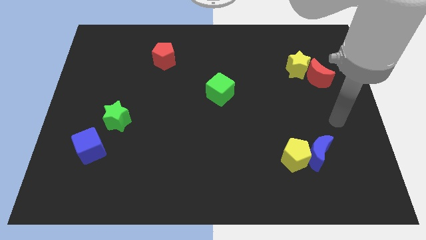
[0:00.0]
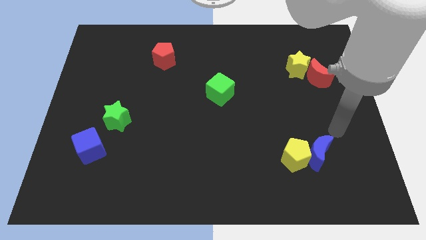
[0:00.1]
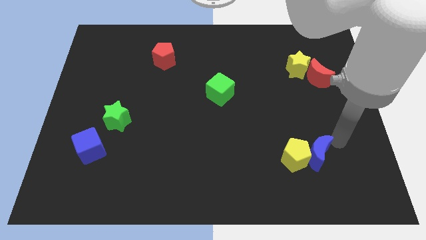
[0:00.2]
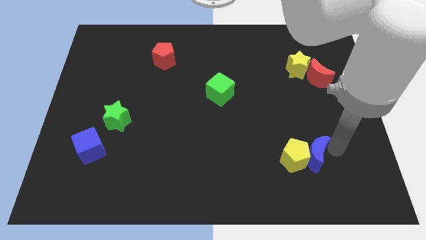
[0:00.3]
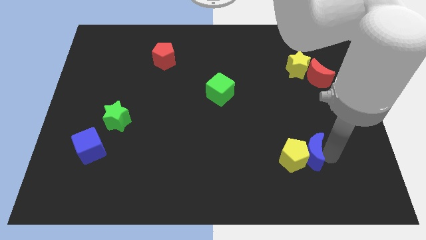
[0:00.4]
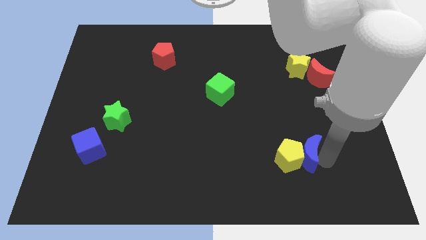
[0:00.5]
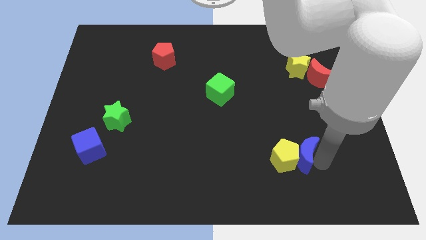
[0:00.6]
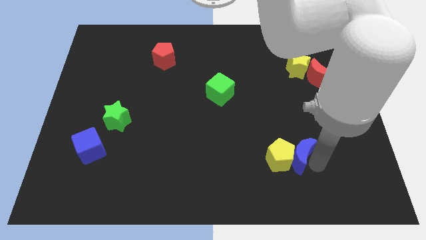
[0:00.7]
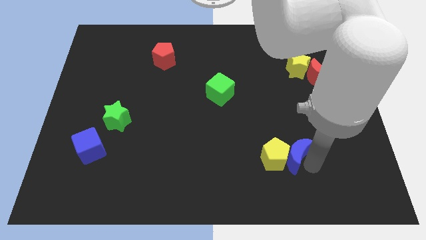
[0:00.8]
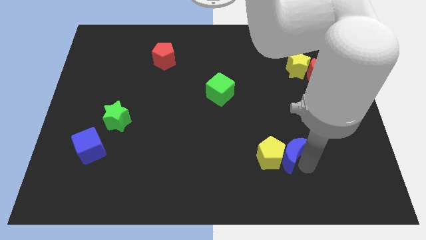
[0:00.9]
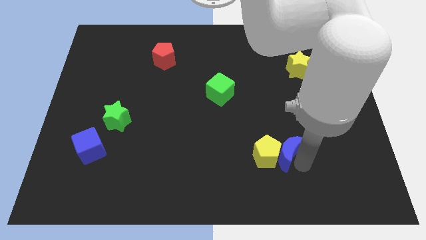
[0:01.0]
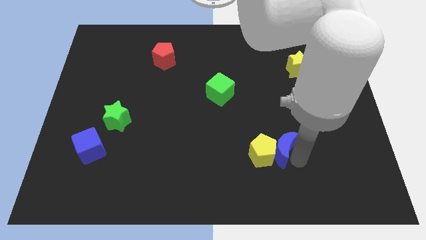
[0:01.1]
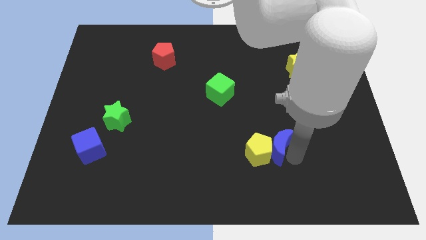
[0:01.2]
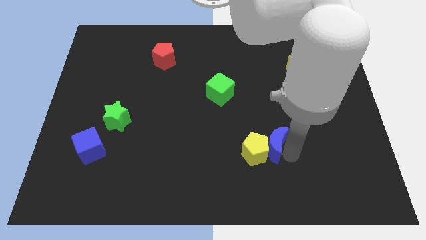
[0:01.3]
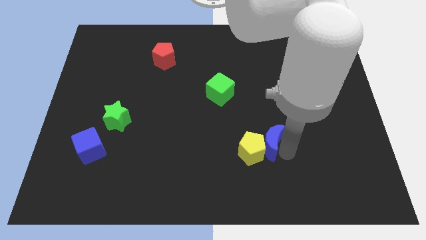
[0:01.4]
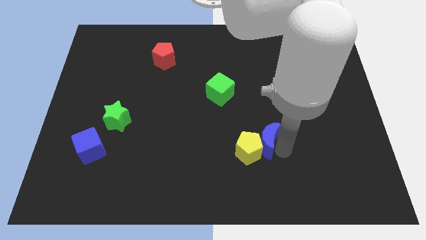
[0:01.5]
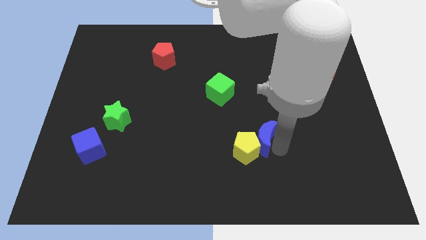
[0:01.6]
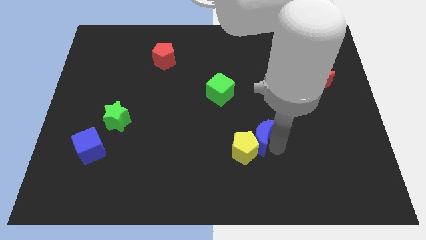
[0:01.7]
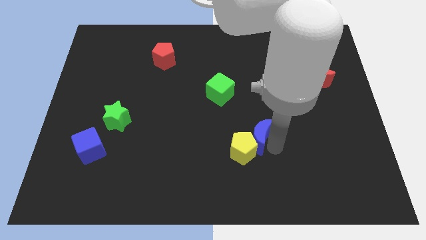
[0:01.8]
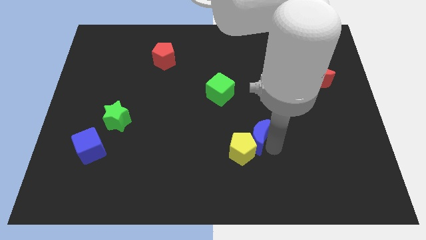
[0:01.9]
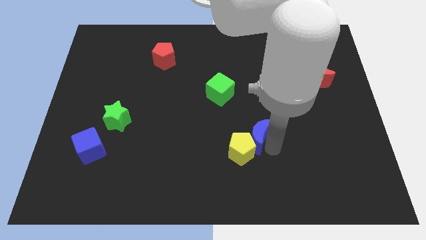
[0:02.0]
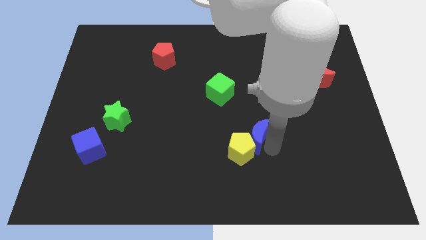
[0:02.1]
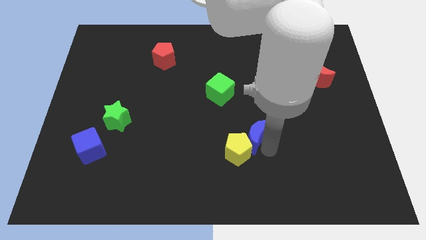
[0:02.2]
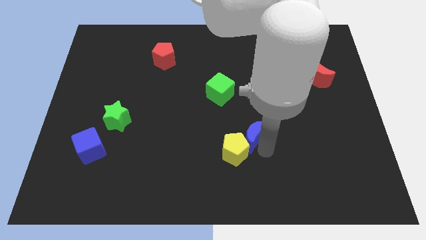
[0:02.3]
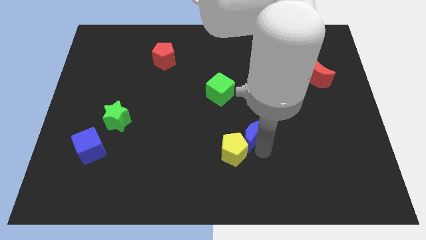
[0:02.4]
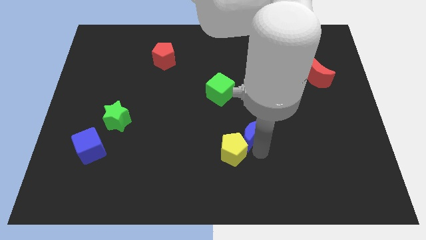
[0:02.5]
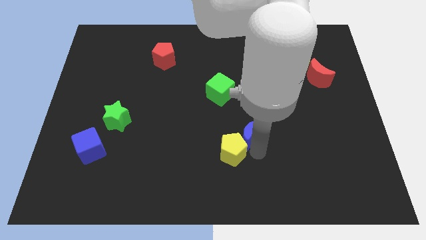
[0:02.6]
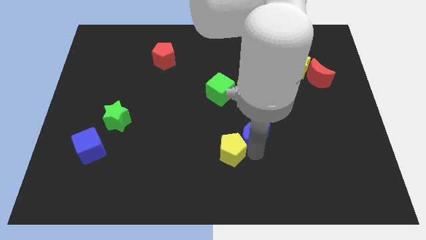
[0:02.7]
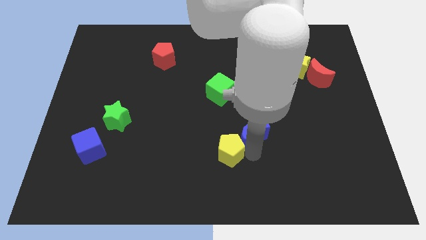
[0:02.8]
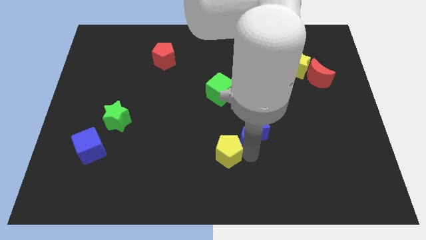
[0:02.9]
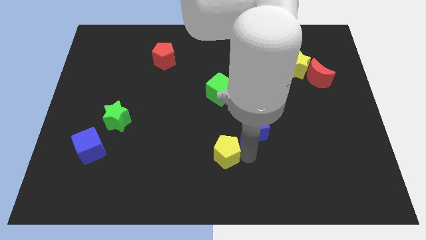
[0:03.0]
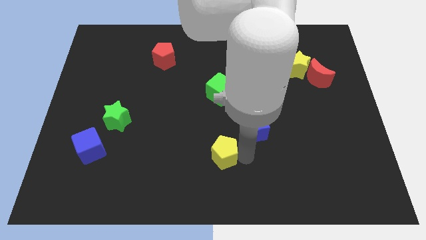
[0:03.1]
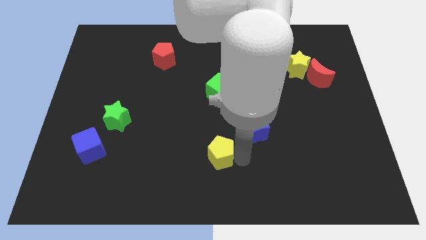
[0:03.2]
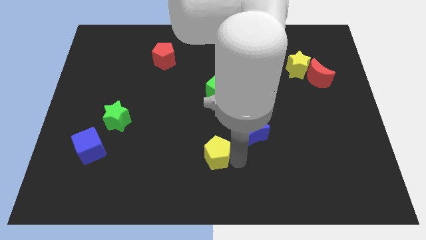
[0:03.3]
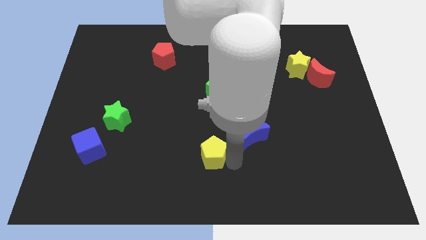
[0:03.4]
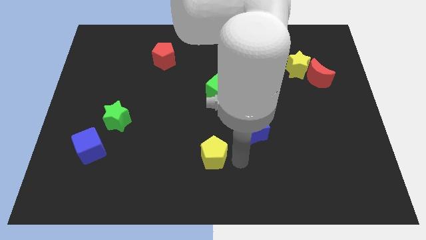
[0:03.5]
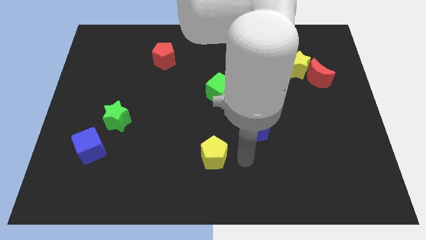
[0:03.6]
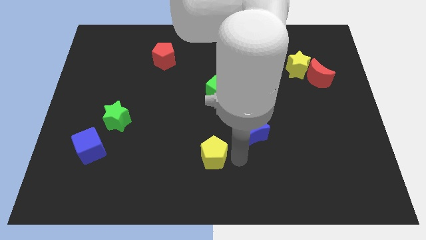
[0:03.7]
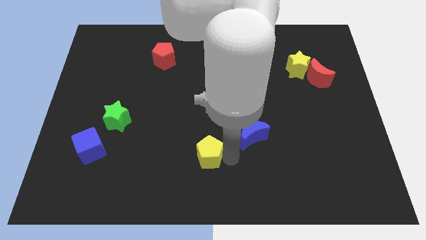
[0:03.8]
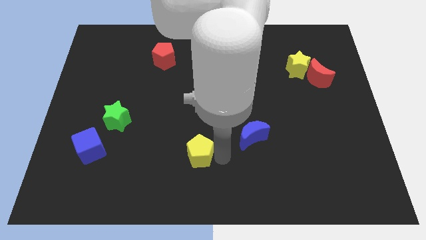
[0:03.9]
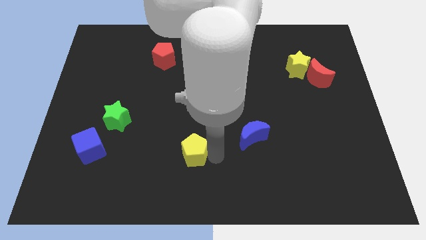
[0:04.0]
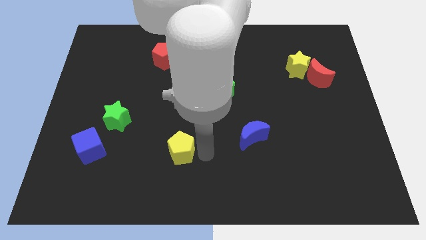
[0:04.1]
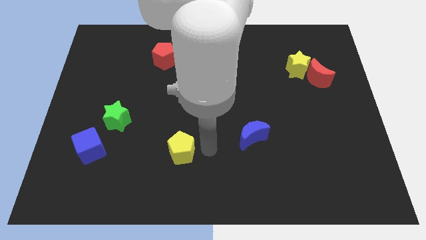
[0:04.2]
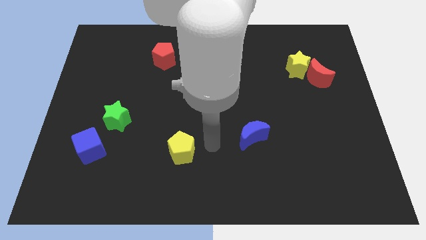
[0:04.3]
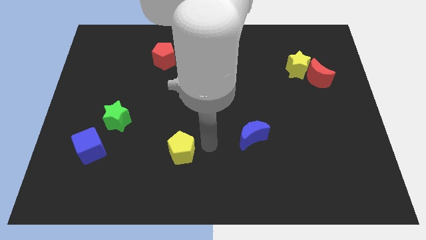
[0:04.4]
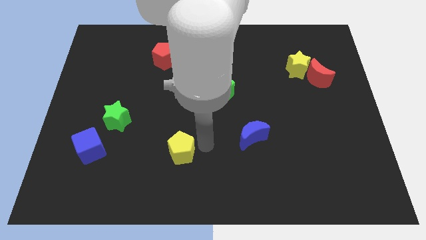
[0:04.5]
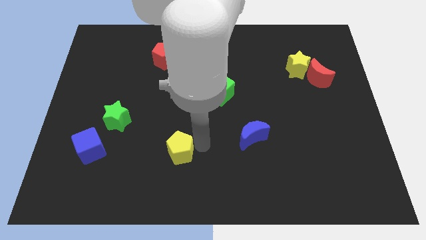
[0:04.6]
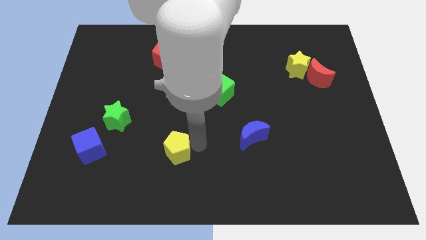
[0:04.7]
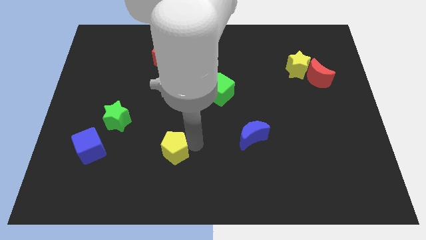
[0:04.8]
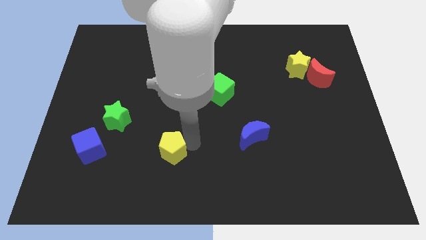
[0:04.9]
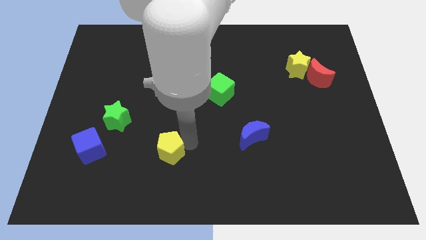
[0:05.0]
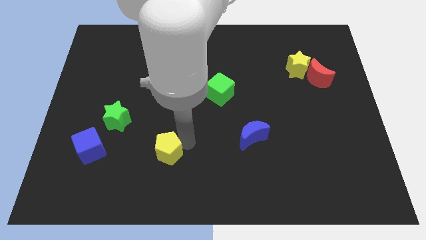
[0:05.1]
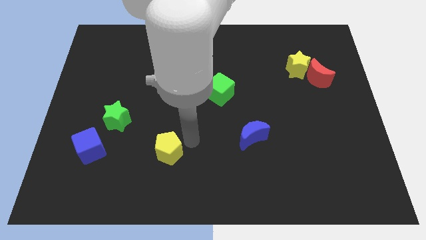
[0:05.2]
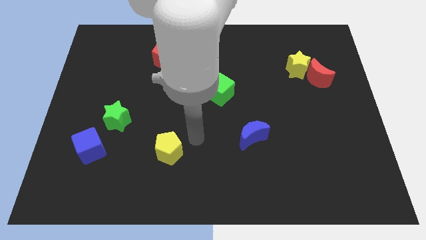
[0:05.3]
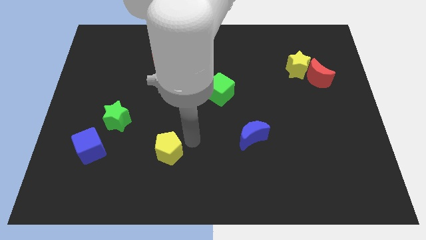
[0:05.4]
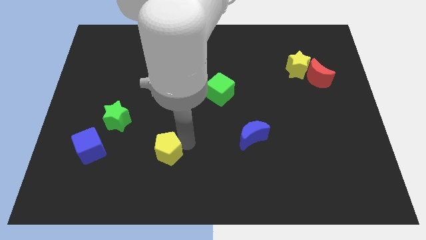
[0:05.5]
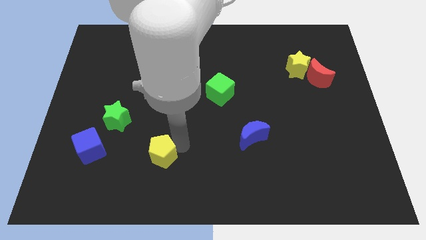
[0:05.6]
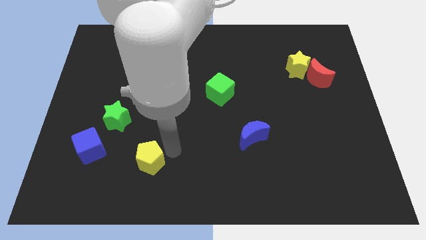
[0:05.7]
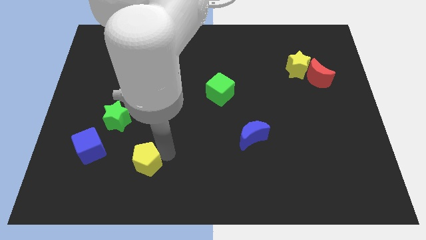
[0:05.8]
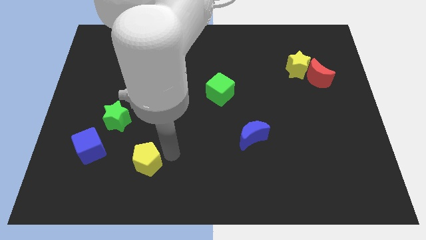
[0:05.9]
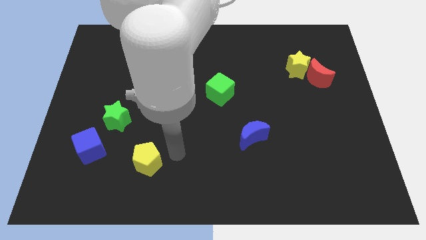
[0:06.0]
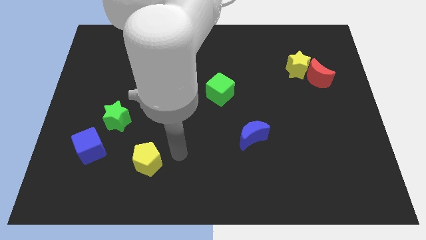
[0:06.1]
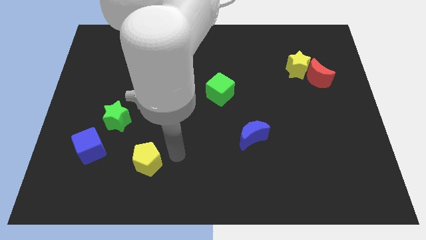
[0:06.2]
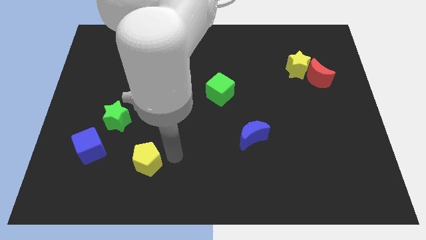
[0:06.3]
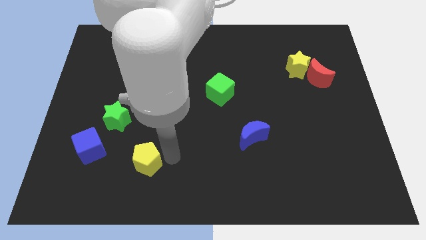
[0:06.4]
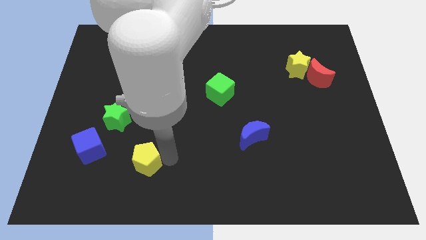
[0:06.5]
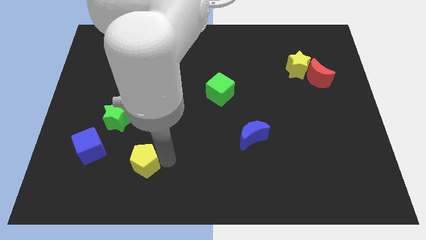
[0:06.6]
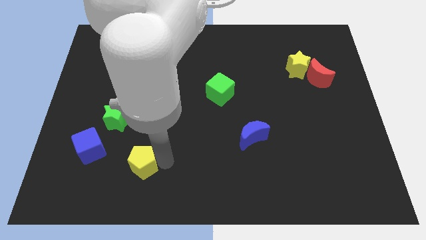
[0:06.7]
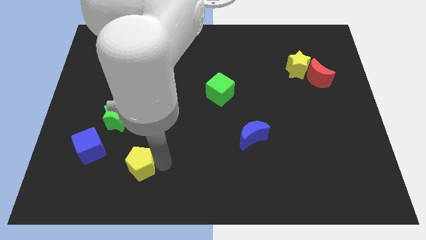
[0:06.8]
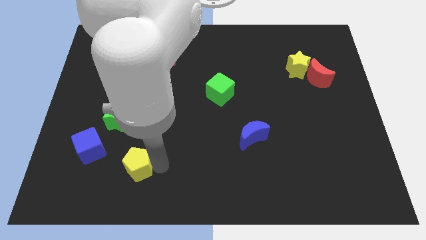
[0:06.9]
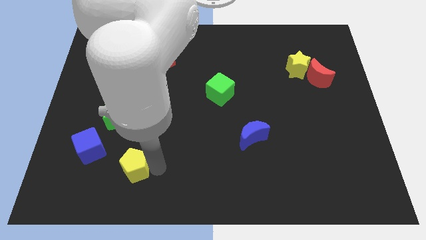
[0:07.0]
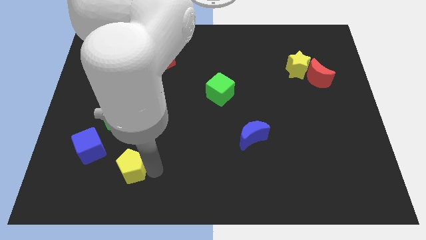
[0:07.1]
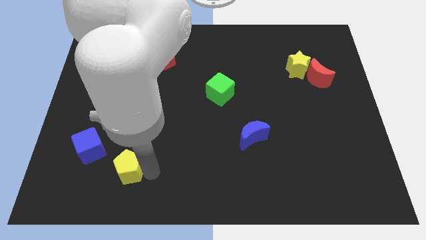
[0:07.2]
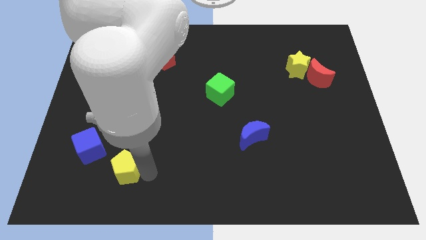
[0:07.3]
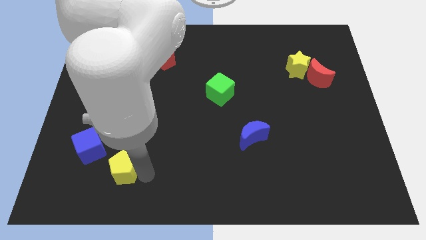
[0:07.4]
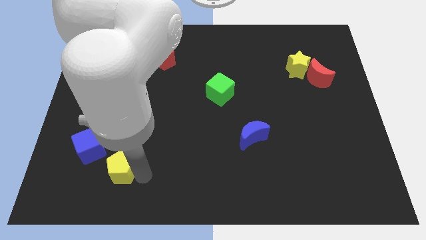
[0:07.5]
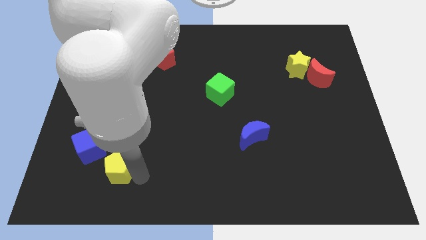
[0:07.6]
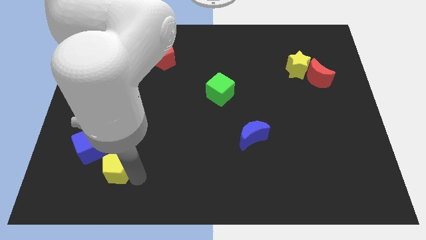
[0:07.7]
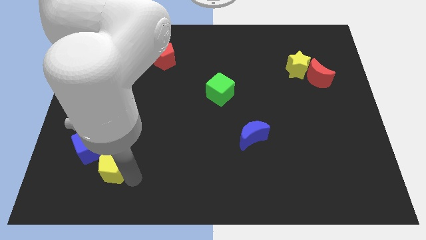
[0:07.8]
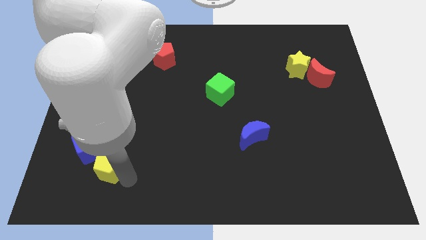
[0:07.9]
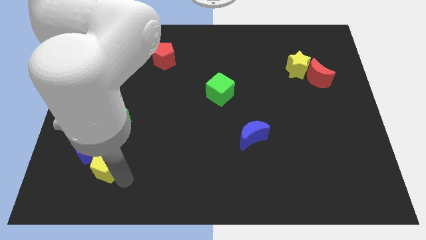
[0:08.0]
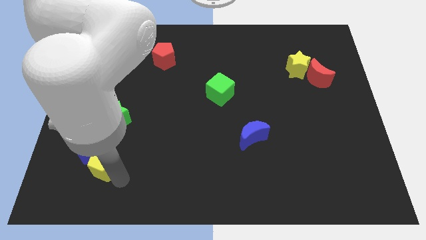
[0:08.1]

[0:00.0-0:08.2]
put the yellow pentagon close to the blue cube
